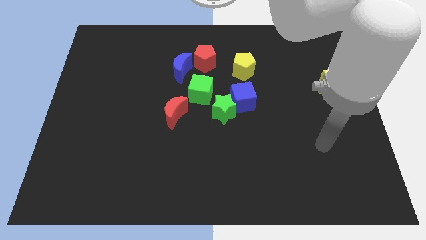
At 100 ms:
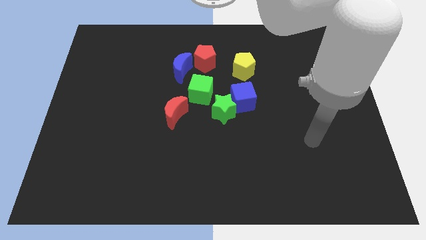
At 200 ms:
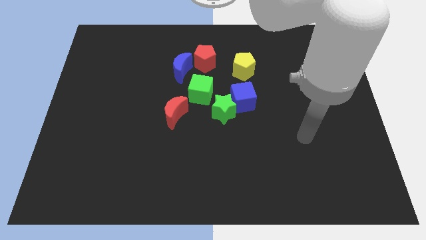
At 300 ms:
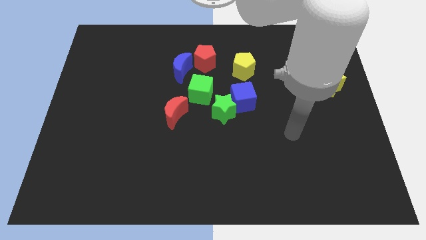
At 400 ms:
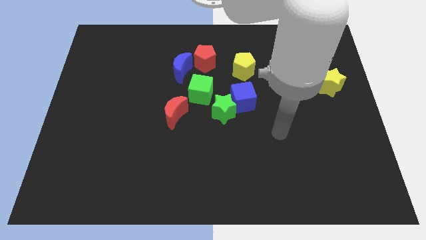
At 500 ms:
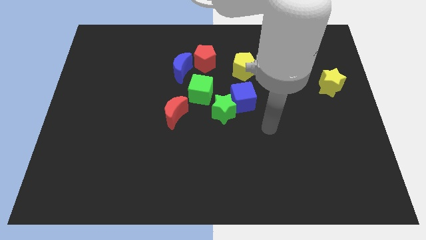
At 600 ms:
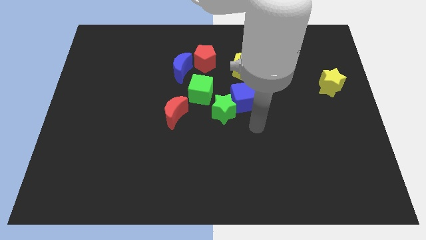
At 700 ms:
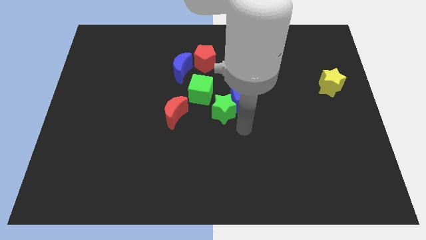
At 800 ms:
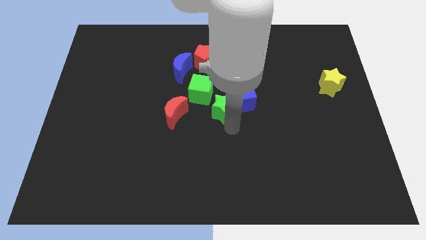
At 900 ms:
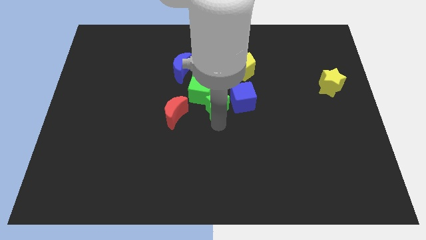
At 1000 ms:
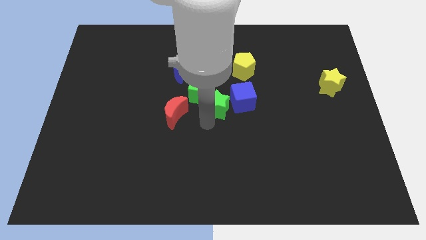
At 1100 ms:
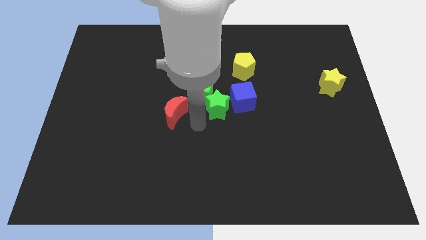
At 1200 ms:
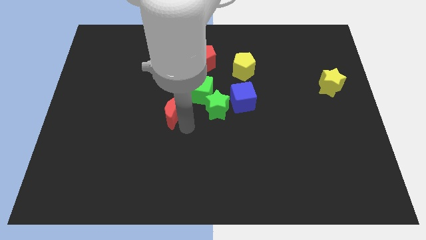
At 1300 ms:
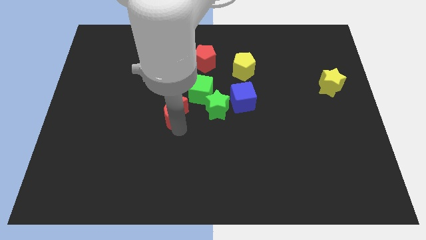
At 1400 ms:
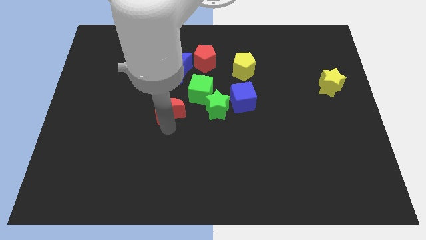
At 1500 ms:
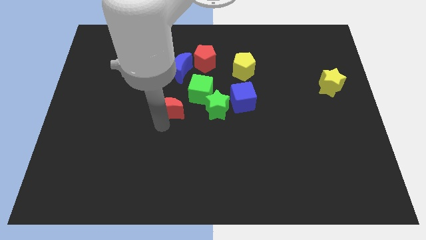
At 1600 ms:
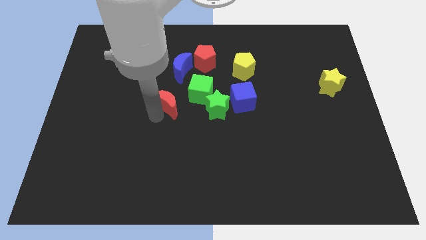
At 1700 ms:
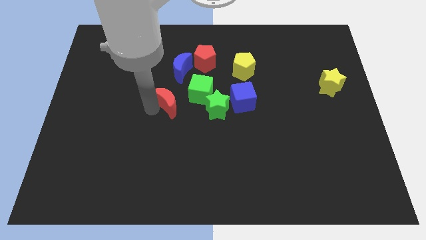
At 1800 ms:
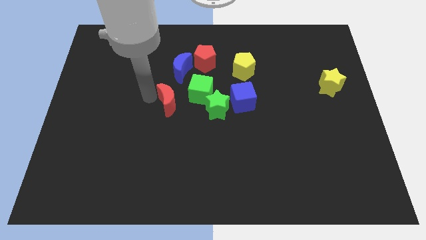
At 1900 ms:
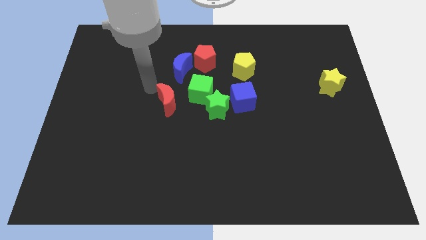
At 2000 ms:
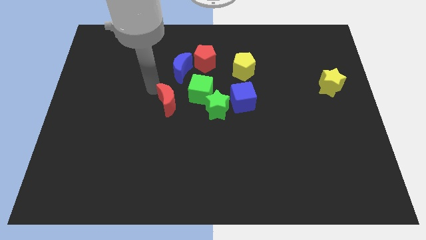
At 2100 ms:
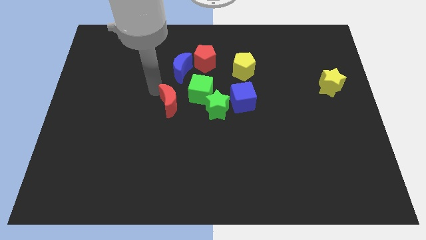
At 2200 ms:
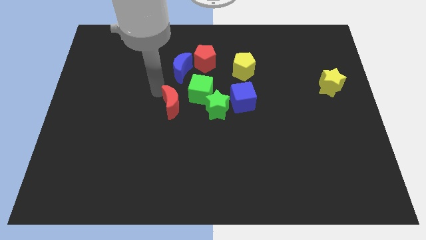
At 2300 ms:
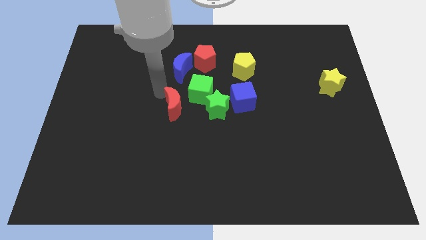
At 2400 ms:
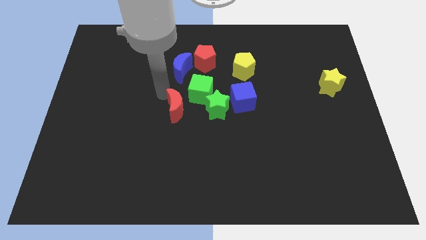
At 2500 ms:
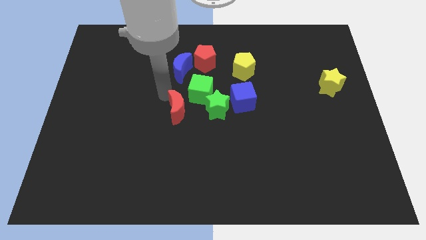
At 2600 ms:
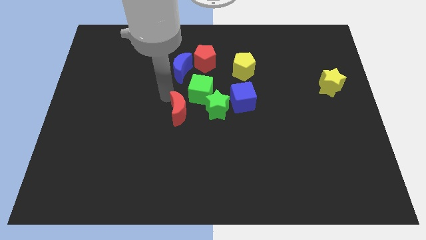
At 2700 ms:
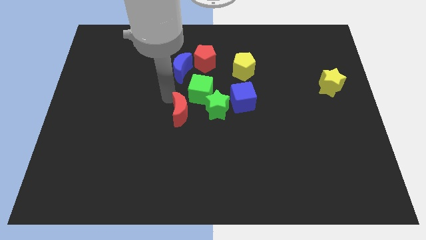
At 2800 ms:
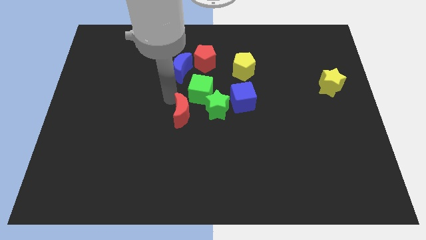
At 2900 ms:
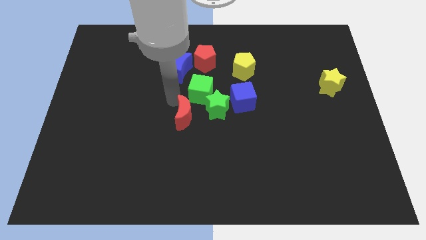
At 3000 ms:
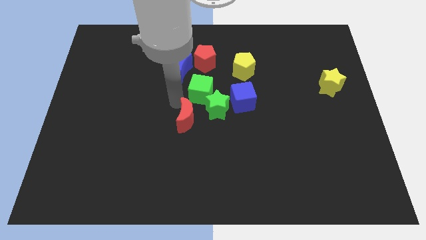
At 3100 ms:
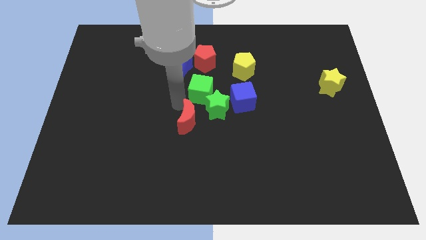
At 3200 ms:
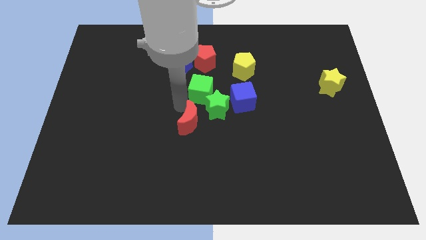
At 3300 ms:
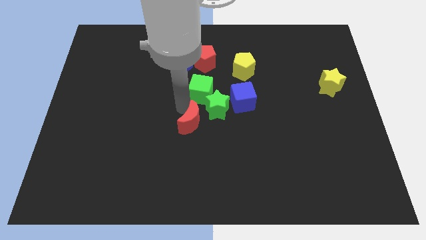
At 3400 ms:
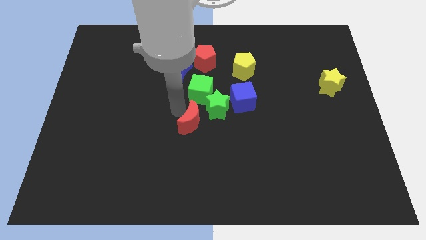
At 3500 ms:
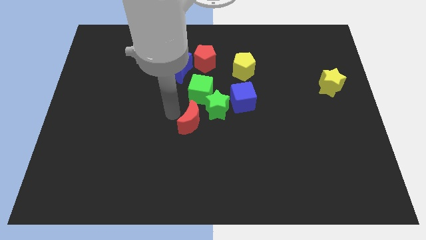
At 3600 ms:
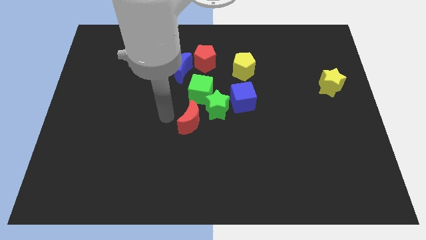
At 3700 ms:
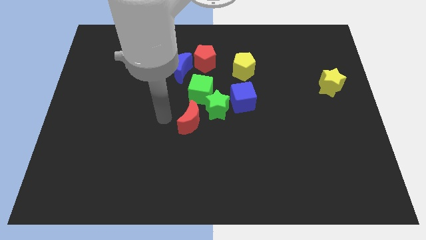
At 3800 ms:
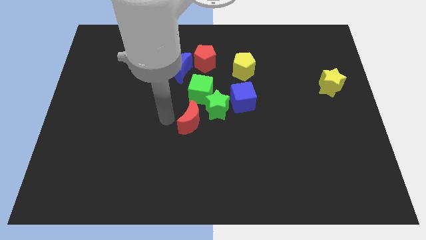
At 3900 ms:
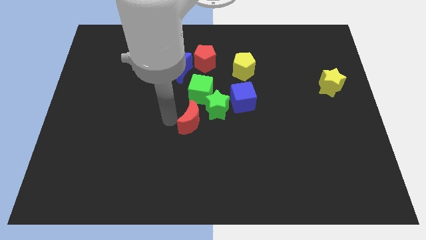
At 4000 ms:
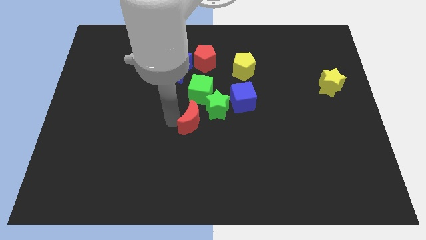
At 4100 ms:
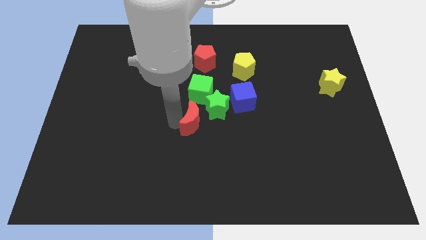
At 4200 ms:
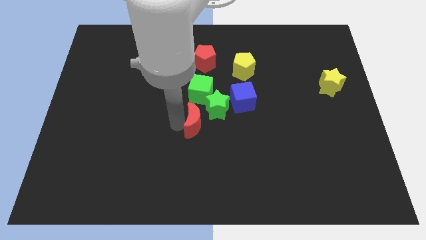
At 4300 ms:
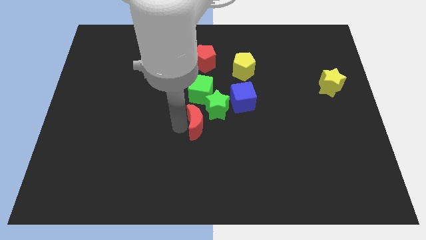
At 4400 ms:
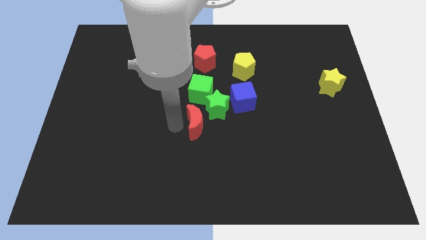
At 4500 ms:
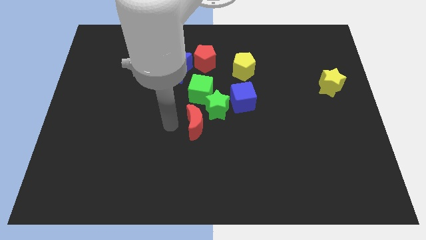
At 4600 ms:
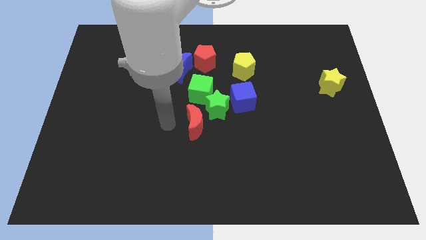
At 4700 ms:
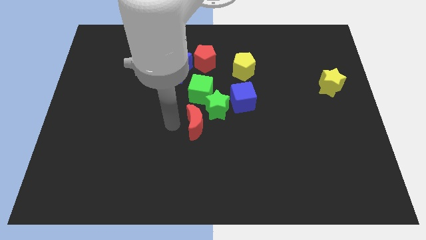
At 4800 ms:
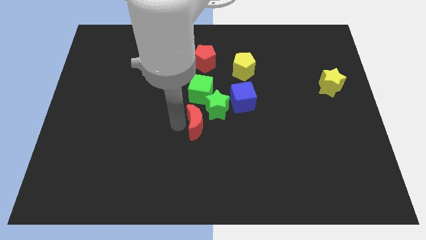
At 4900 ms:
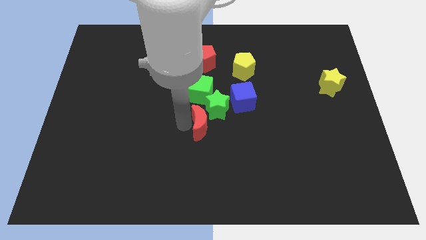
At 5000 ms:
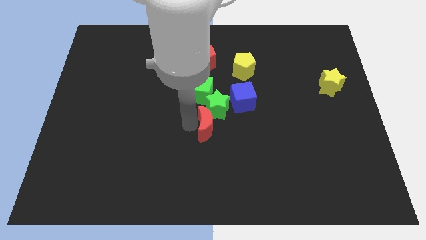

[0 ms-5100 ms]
slide the red moon slightly to the right

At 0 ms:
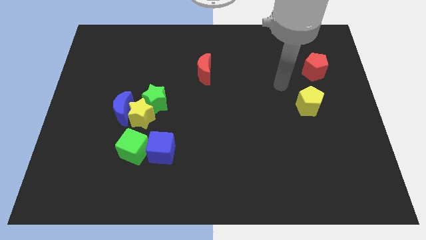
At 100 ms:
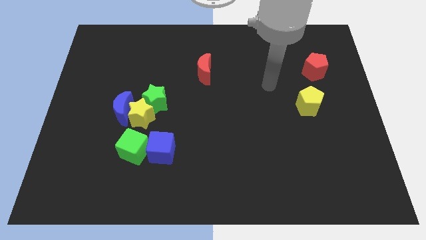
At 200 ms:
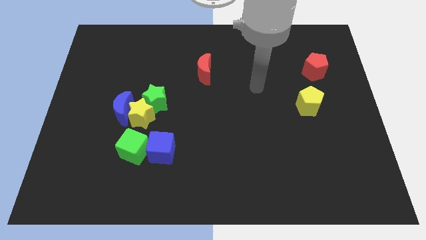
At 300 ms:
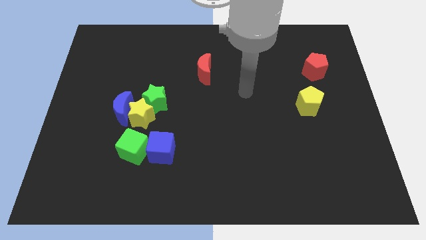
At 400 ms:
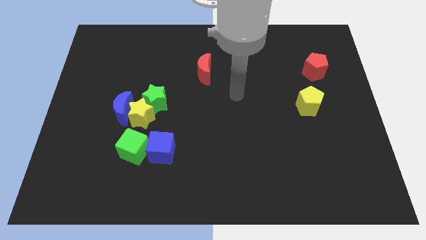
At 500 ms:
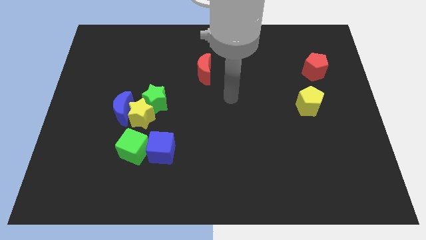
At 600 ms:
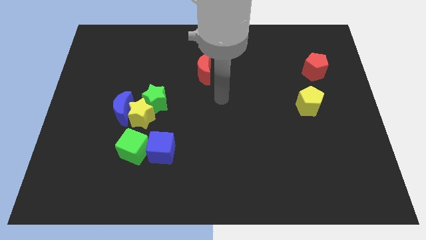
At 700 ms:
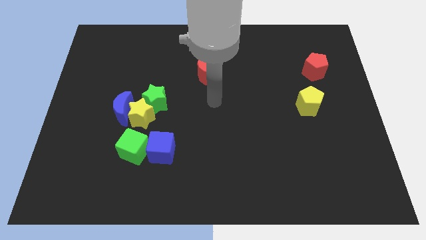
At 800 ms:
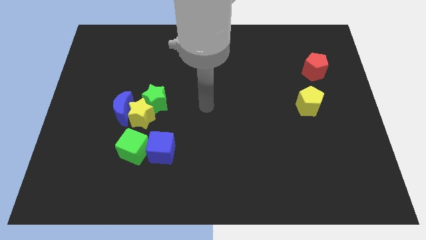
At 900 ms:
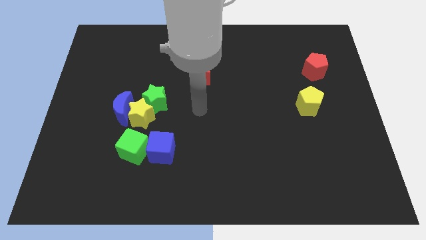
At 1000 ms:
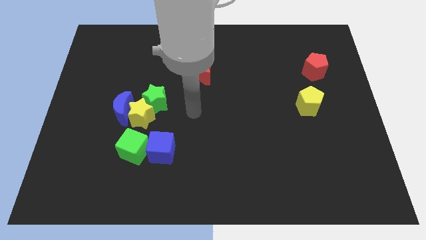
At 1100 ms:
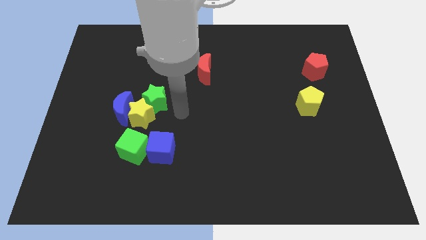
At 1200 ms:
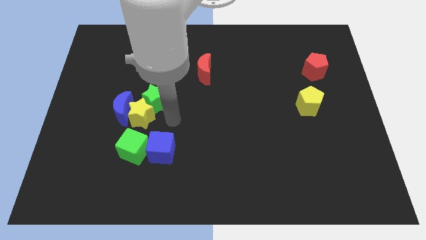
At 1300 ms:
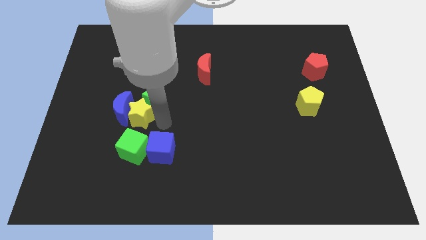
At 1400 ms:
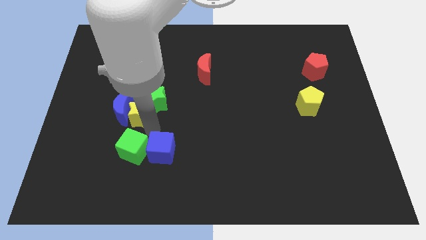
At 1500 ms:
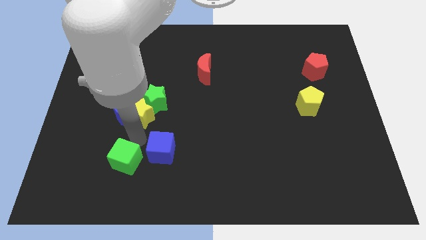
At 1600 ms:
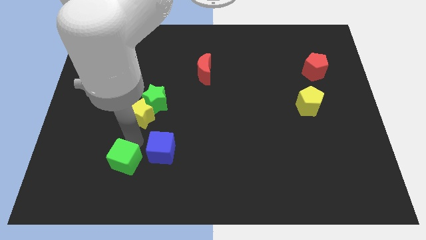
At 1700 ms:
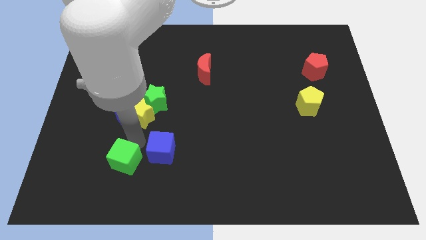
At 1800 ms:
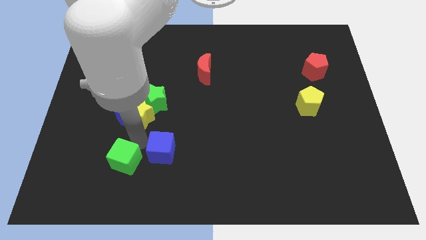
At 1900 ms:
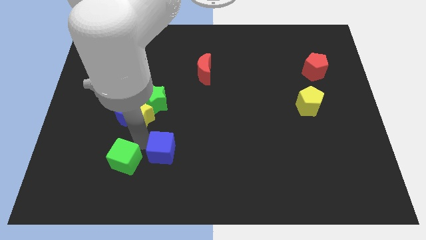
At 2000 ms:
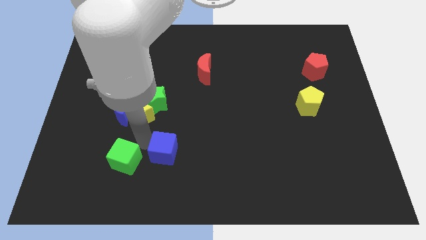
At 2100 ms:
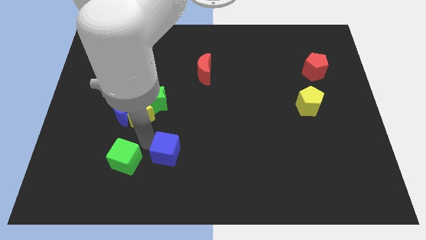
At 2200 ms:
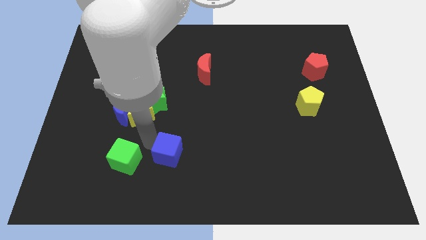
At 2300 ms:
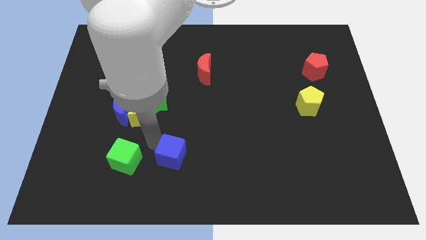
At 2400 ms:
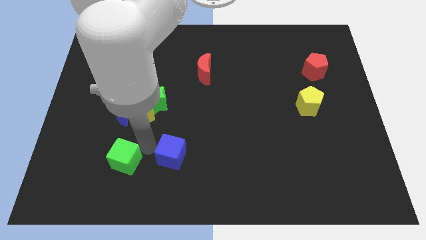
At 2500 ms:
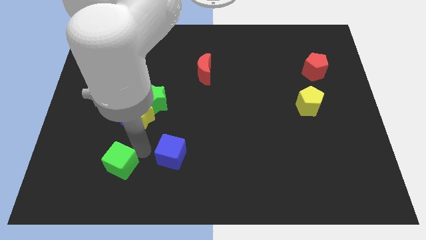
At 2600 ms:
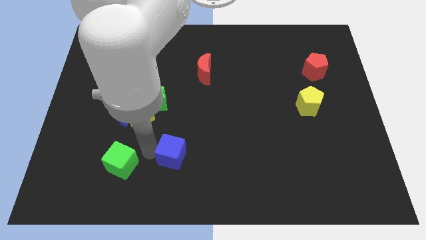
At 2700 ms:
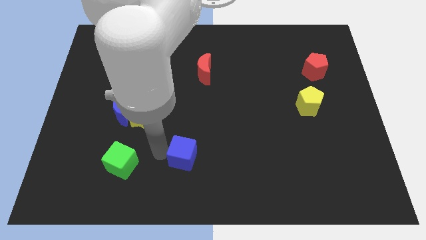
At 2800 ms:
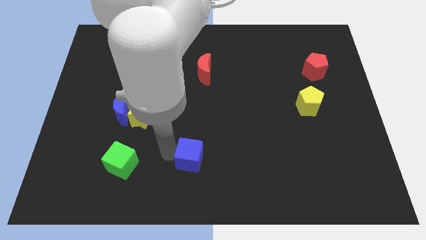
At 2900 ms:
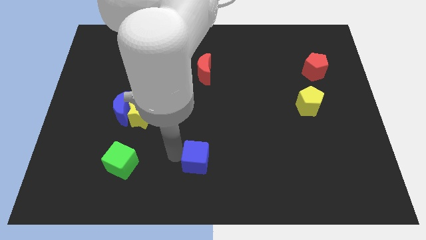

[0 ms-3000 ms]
slightly slide the blue cube to the right

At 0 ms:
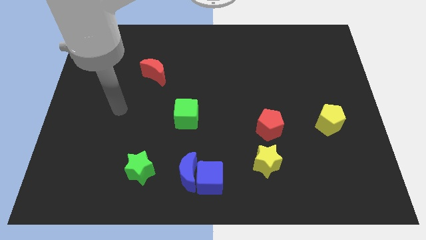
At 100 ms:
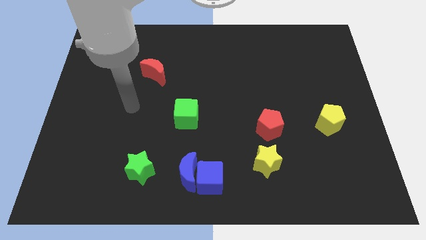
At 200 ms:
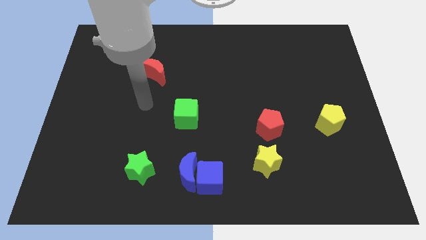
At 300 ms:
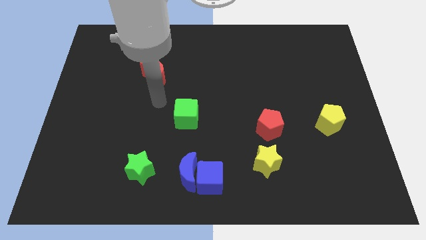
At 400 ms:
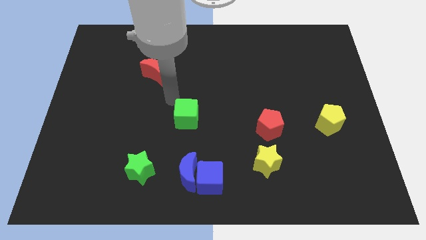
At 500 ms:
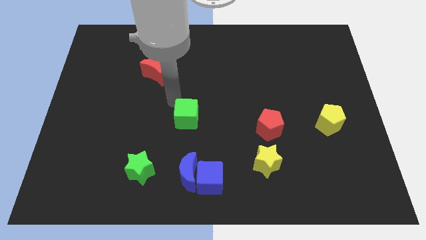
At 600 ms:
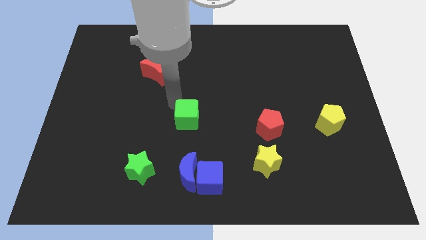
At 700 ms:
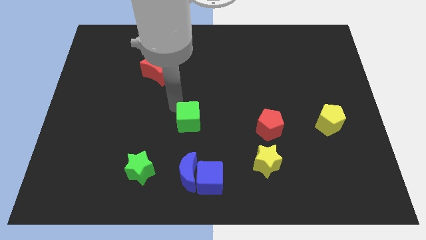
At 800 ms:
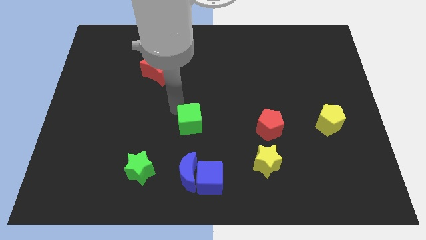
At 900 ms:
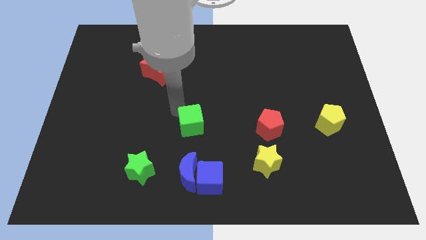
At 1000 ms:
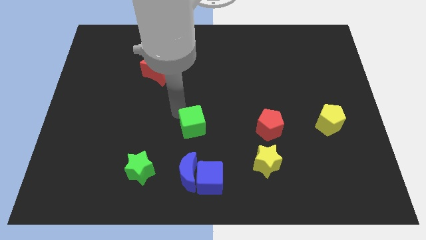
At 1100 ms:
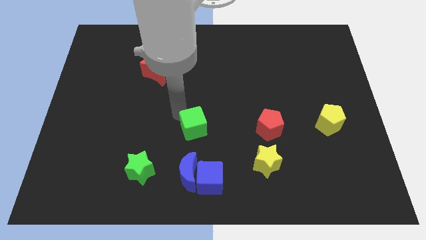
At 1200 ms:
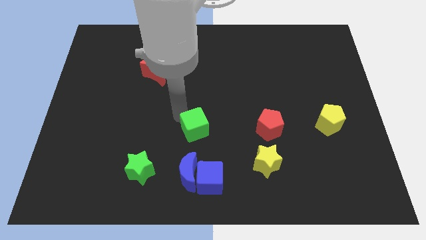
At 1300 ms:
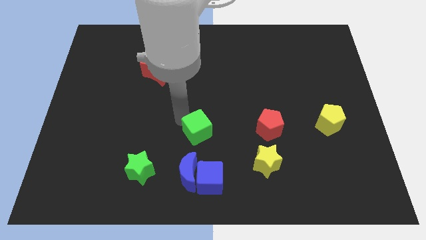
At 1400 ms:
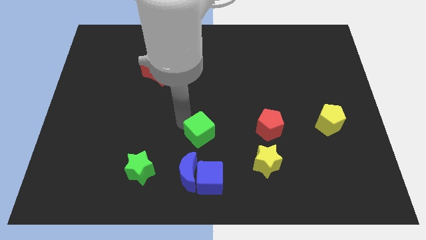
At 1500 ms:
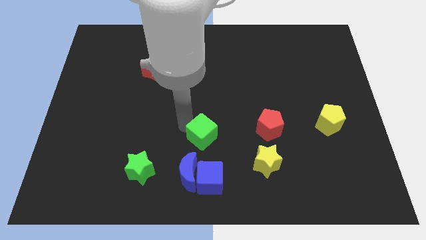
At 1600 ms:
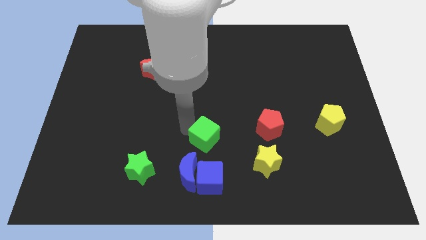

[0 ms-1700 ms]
slide the green cube a bit downwards and right diagonally
